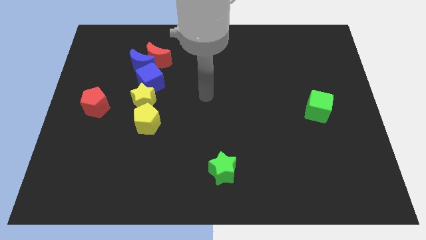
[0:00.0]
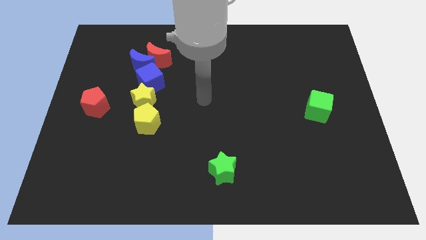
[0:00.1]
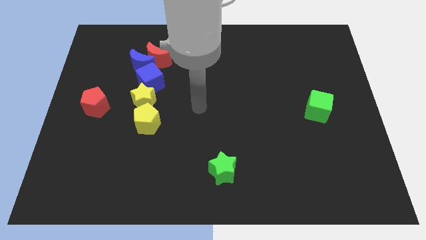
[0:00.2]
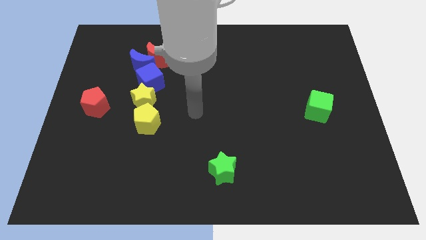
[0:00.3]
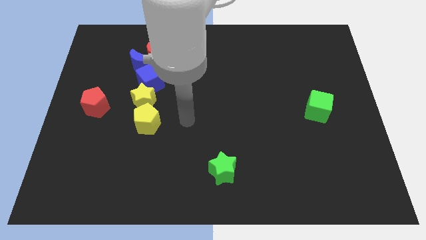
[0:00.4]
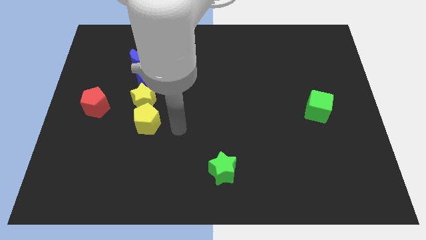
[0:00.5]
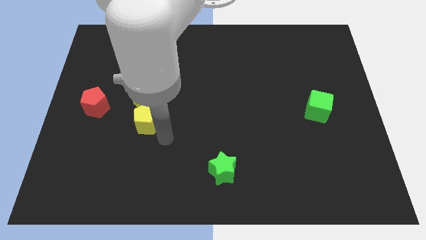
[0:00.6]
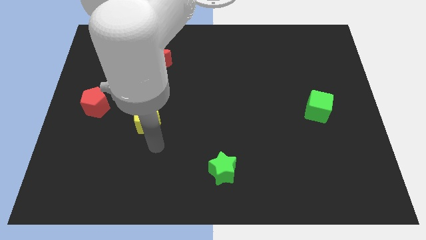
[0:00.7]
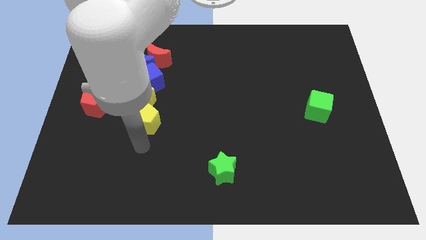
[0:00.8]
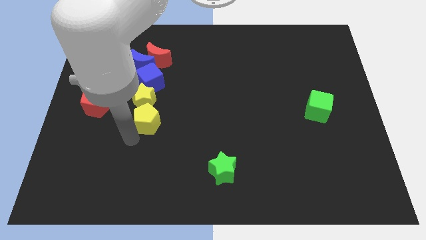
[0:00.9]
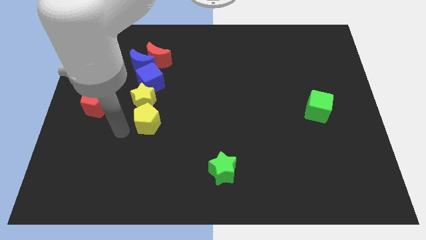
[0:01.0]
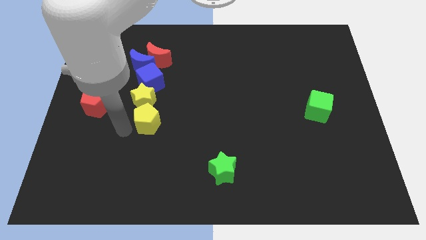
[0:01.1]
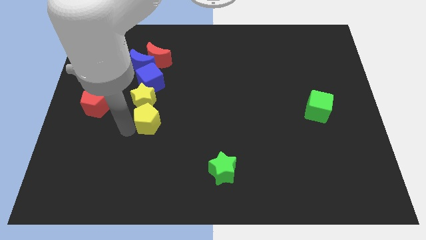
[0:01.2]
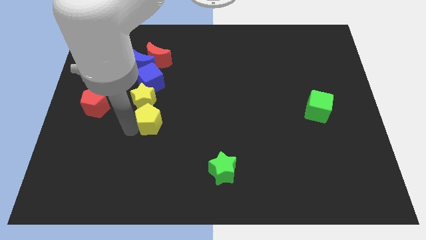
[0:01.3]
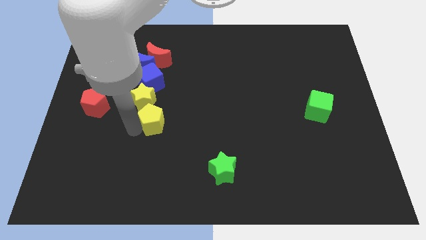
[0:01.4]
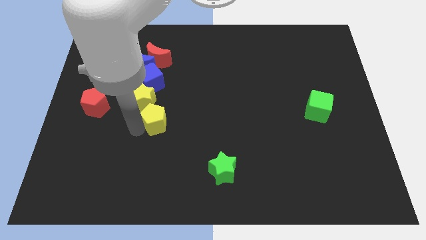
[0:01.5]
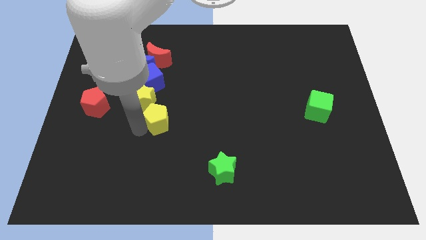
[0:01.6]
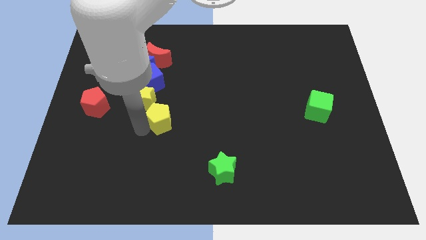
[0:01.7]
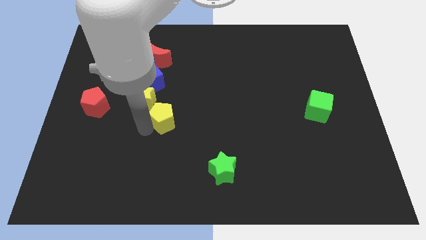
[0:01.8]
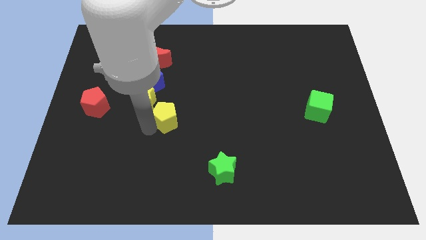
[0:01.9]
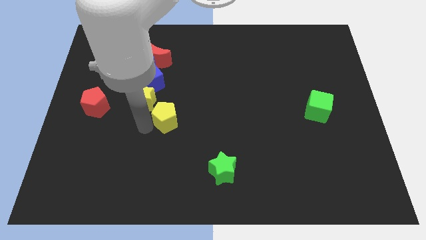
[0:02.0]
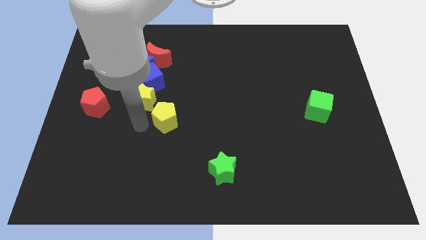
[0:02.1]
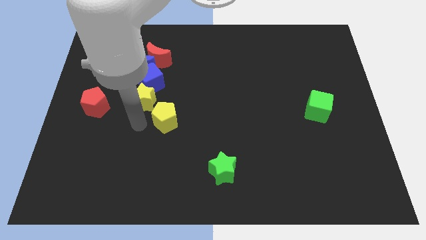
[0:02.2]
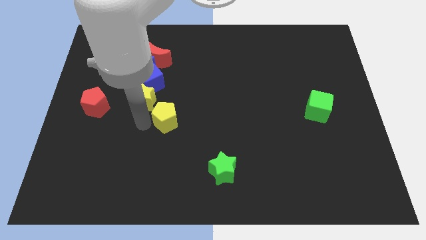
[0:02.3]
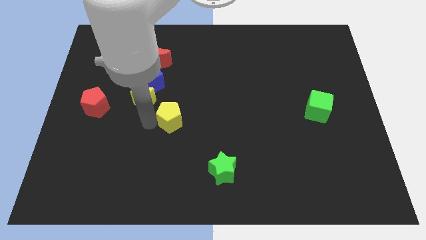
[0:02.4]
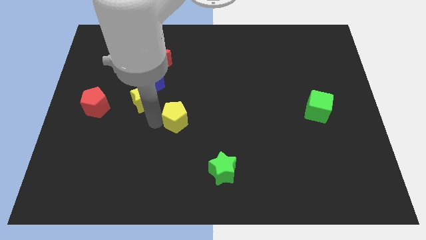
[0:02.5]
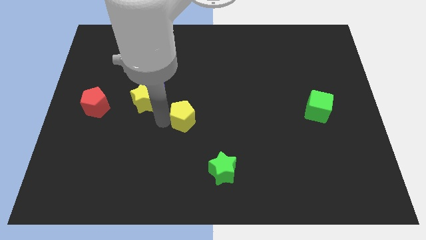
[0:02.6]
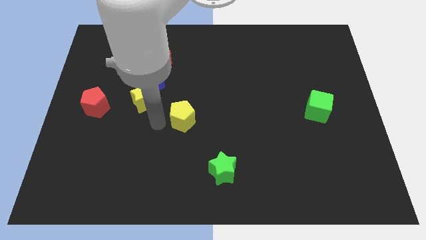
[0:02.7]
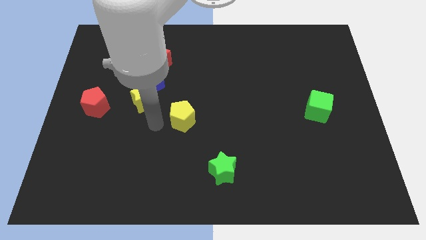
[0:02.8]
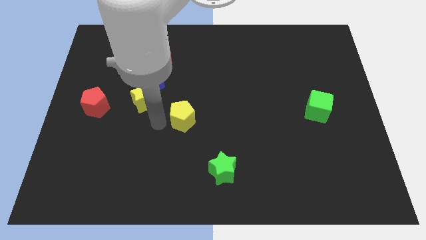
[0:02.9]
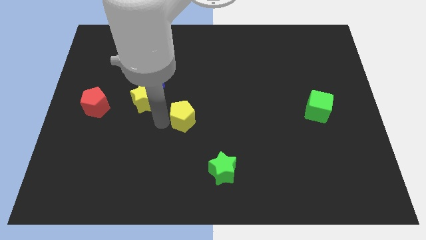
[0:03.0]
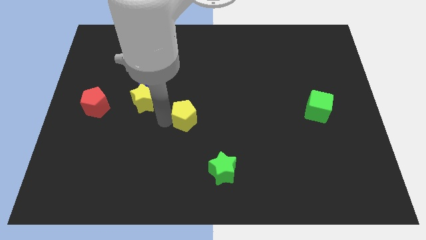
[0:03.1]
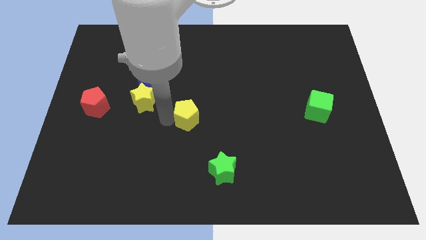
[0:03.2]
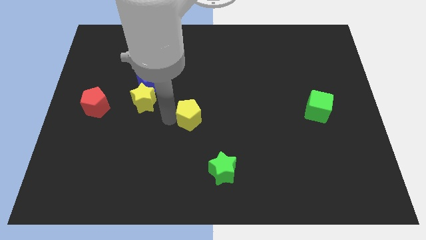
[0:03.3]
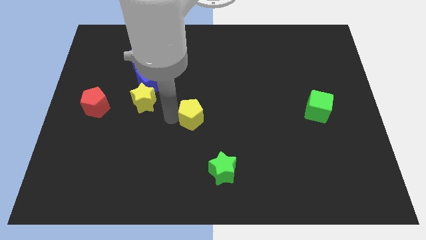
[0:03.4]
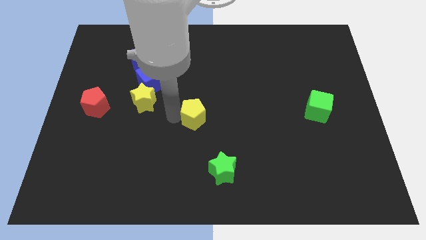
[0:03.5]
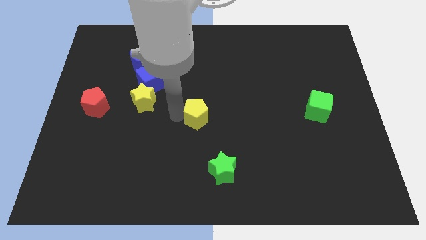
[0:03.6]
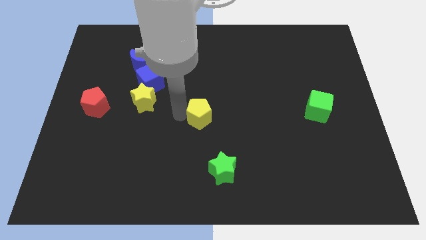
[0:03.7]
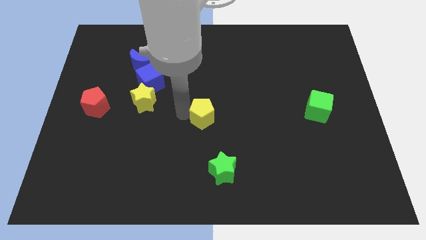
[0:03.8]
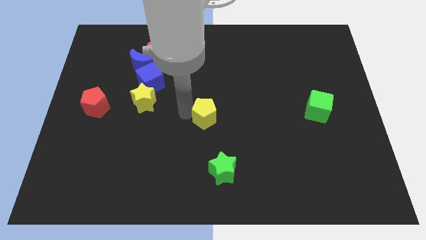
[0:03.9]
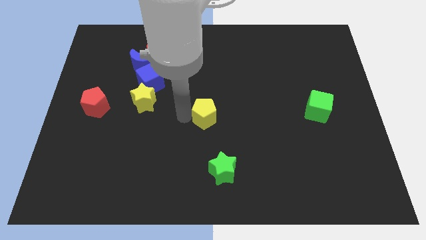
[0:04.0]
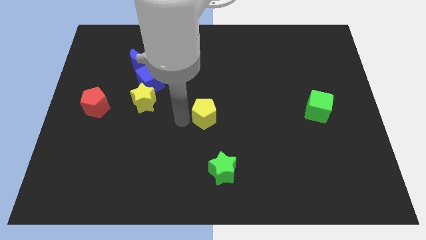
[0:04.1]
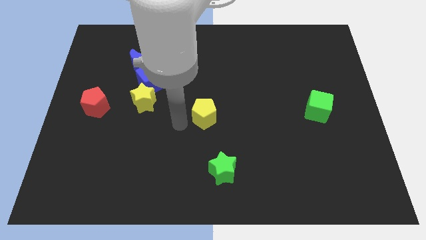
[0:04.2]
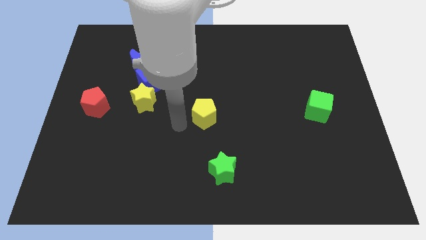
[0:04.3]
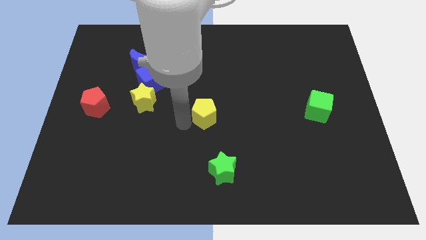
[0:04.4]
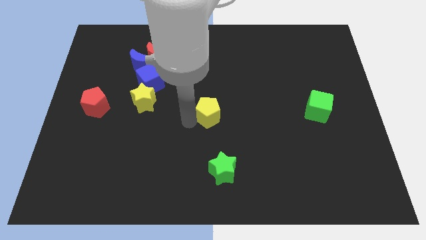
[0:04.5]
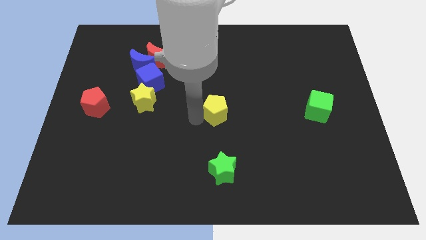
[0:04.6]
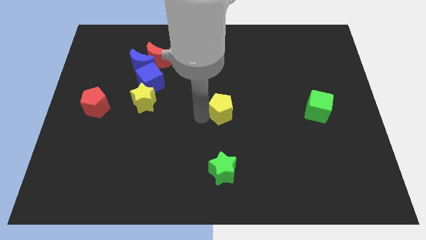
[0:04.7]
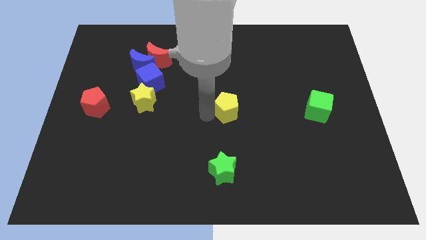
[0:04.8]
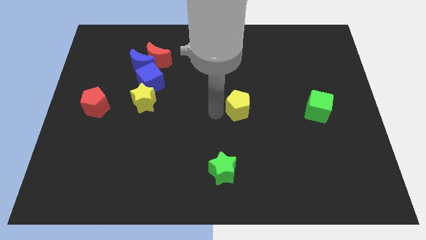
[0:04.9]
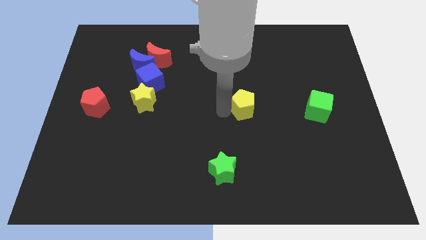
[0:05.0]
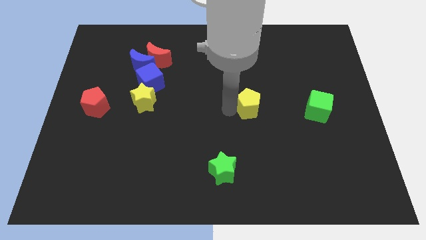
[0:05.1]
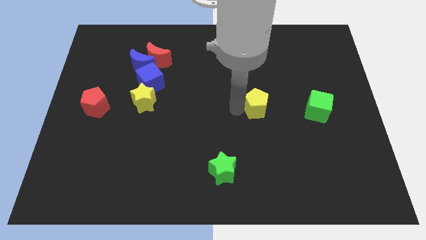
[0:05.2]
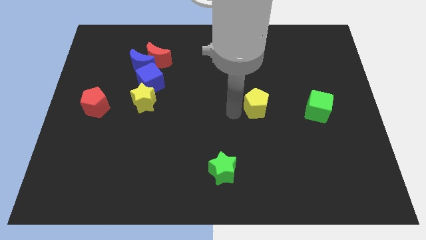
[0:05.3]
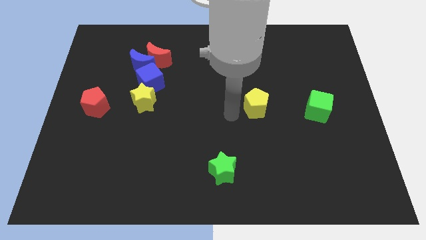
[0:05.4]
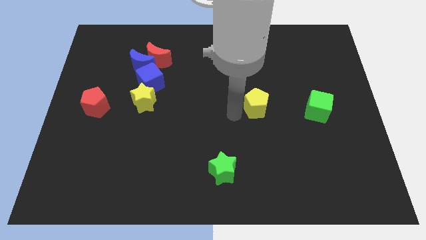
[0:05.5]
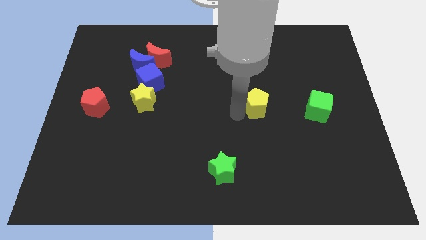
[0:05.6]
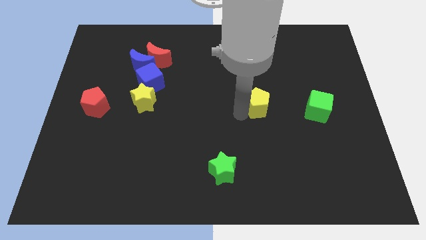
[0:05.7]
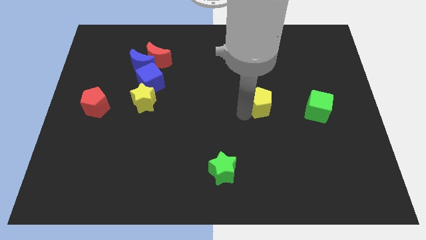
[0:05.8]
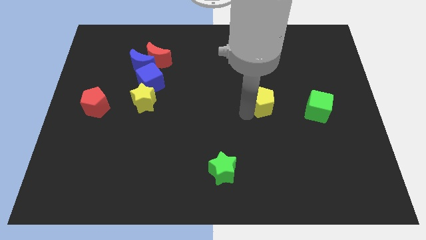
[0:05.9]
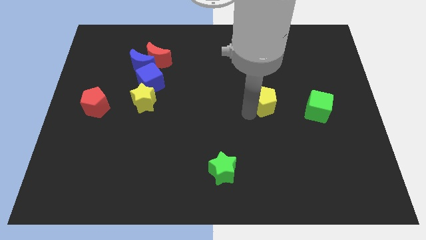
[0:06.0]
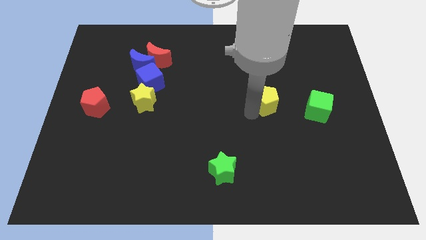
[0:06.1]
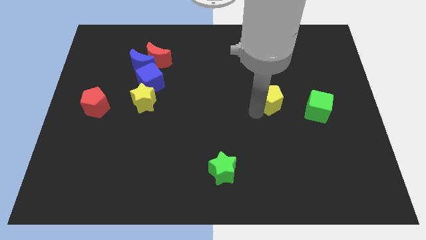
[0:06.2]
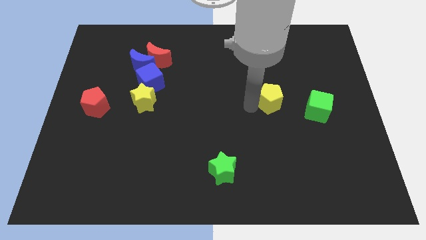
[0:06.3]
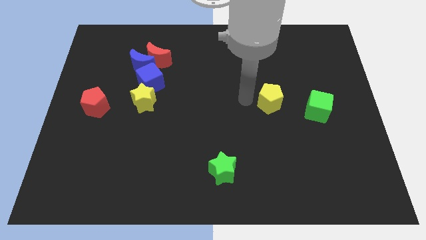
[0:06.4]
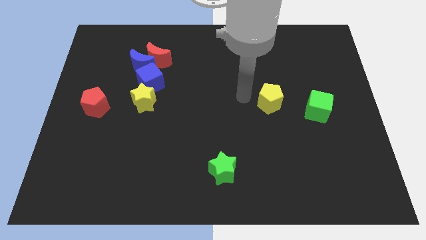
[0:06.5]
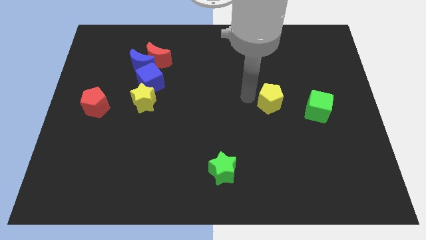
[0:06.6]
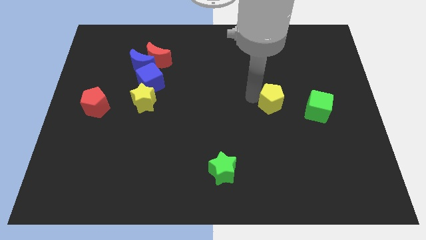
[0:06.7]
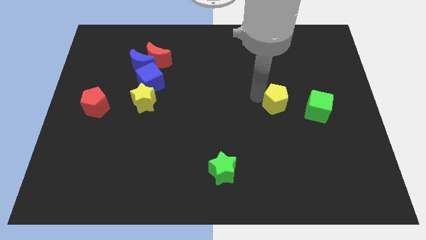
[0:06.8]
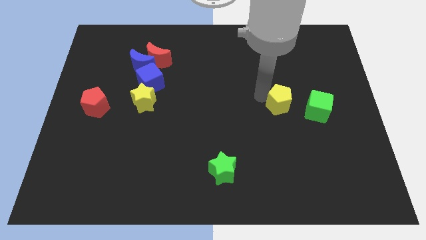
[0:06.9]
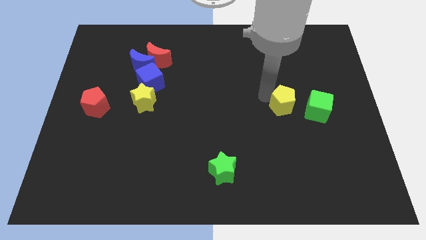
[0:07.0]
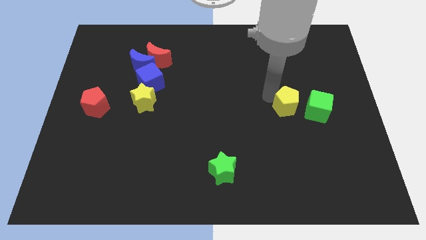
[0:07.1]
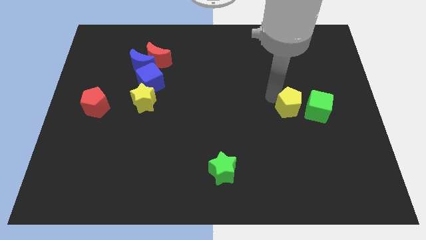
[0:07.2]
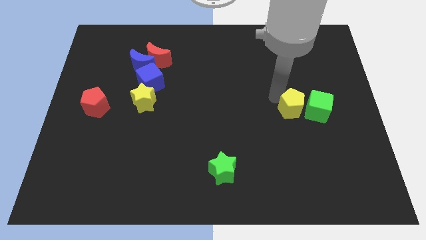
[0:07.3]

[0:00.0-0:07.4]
push the yellow pentagon towards the green cube
